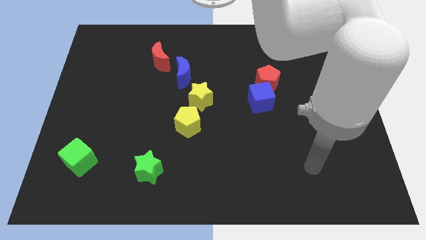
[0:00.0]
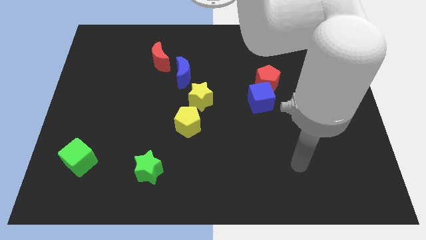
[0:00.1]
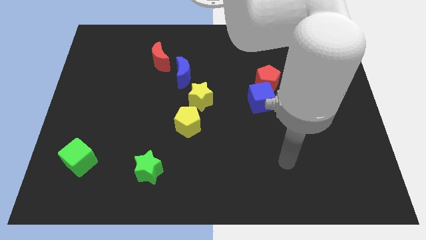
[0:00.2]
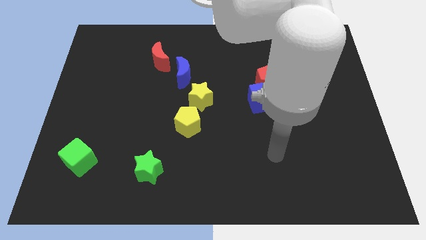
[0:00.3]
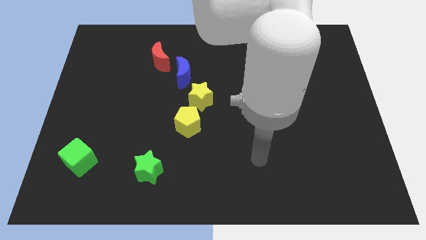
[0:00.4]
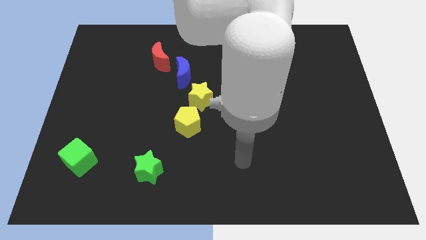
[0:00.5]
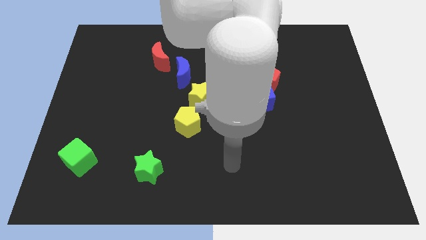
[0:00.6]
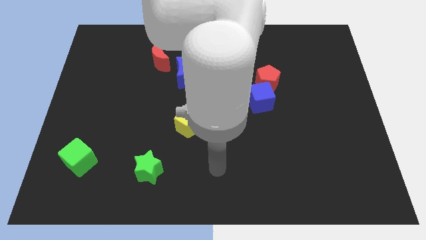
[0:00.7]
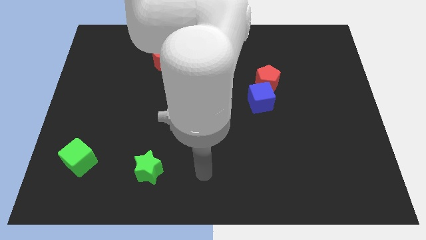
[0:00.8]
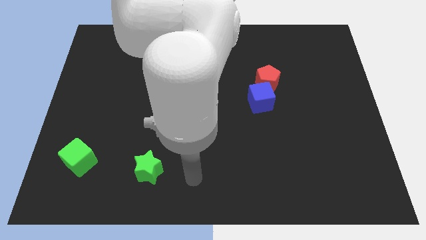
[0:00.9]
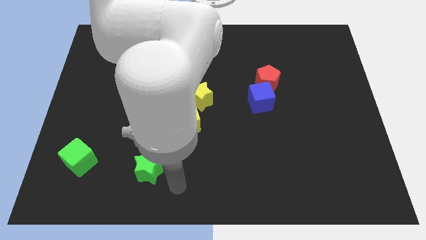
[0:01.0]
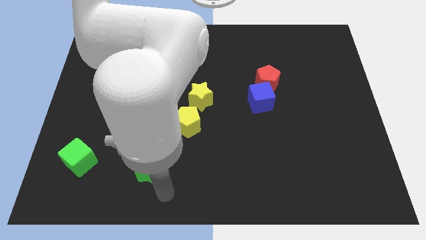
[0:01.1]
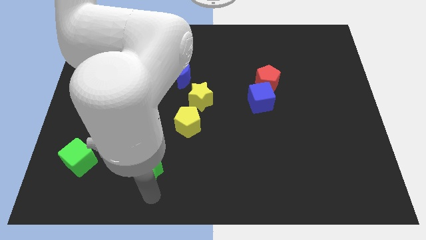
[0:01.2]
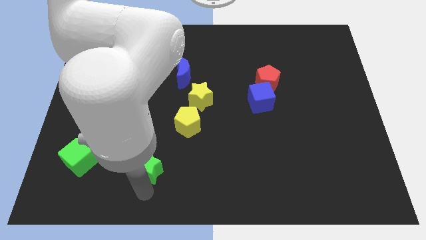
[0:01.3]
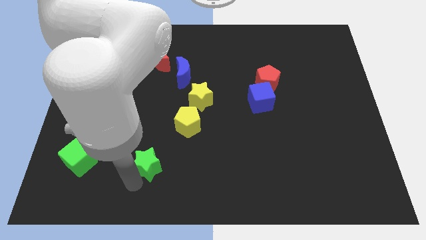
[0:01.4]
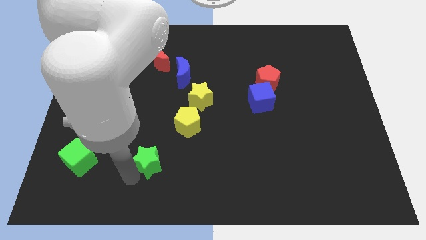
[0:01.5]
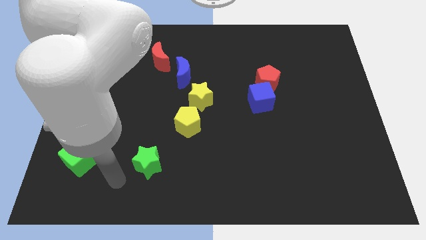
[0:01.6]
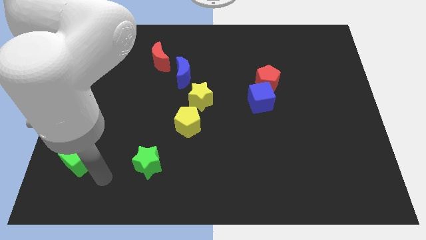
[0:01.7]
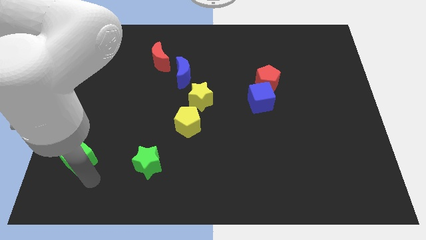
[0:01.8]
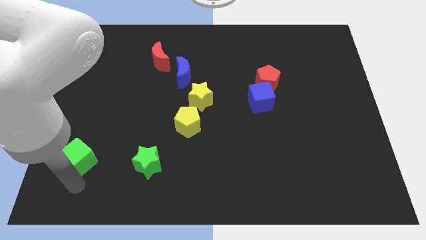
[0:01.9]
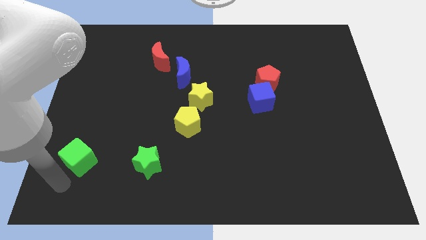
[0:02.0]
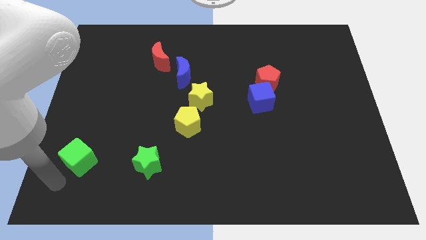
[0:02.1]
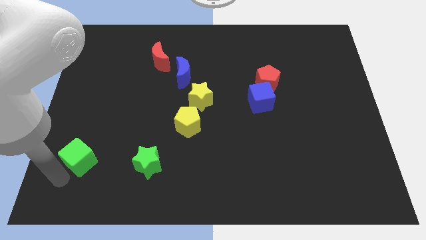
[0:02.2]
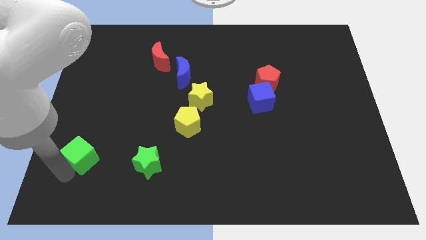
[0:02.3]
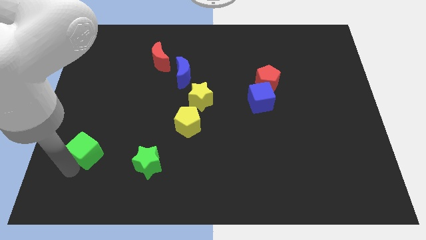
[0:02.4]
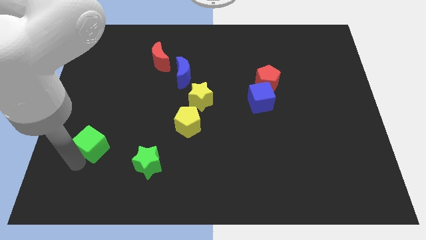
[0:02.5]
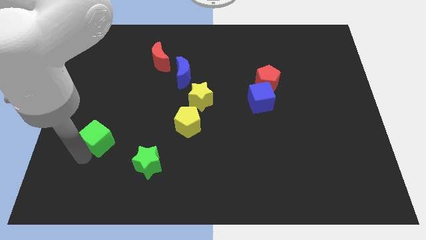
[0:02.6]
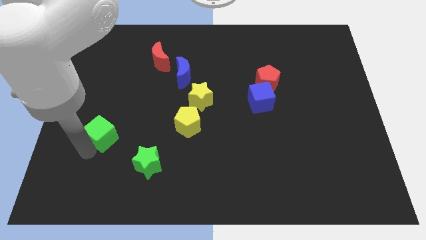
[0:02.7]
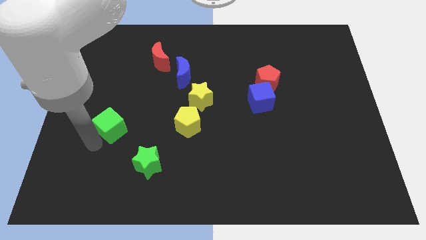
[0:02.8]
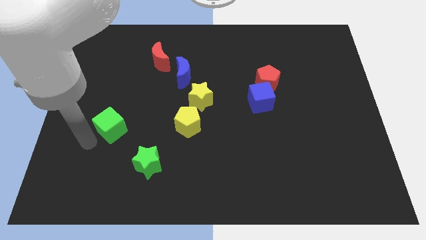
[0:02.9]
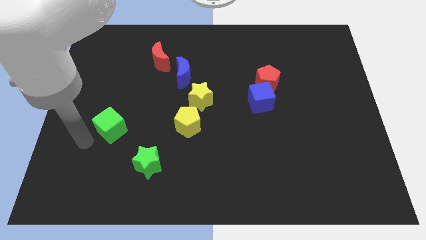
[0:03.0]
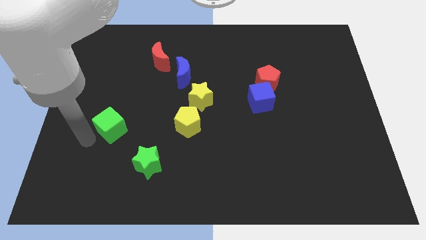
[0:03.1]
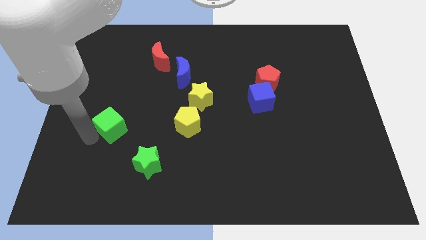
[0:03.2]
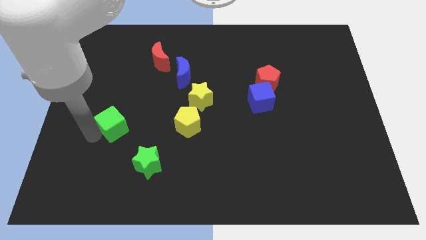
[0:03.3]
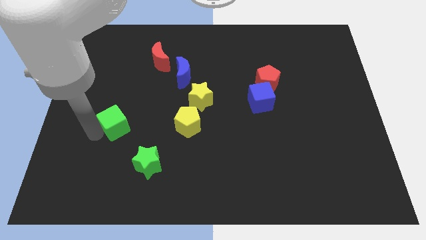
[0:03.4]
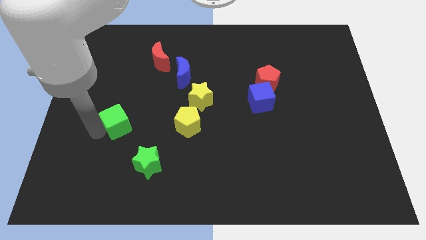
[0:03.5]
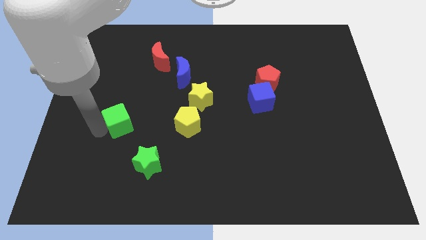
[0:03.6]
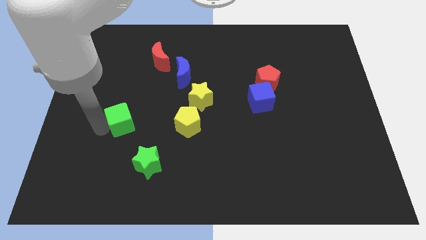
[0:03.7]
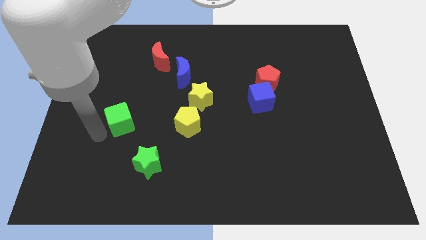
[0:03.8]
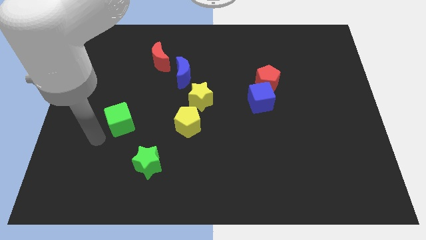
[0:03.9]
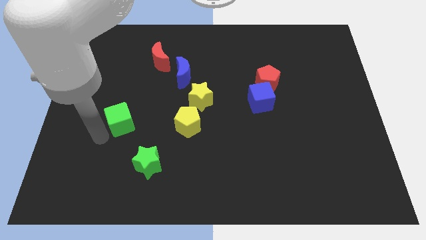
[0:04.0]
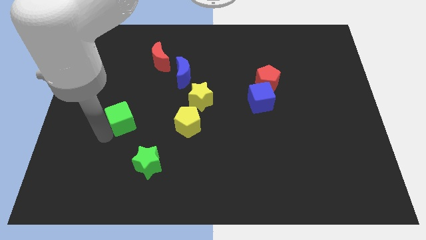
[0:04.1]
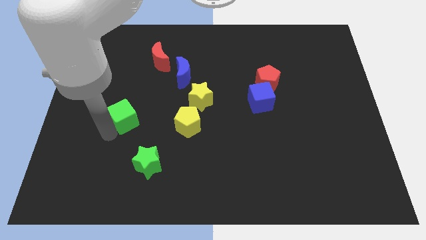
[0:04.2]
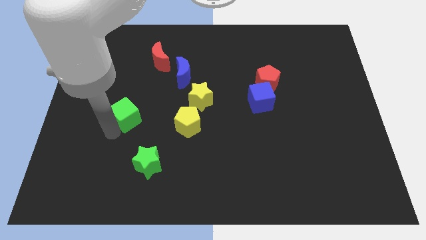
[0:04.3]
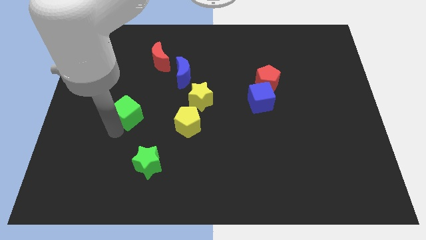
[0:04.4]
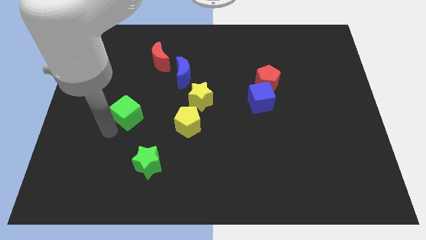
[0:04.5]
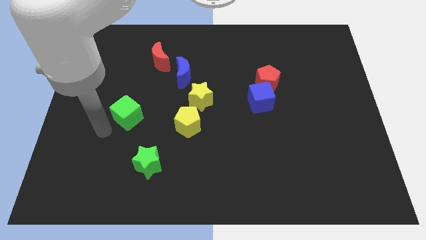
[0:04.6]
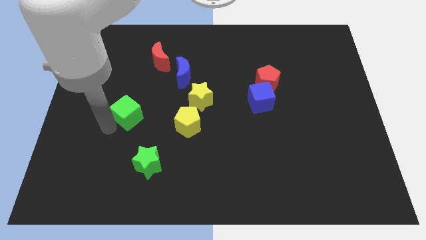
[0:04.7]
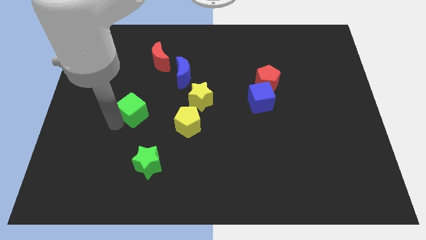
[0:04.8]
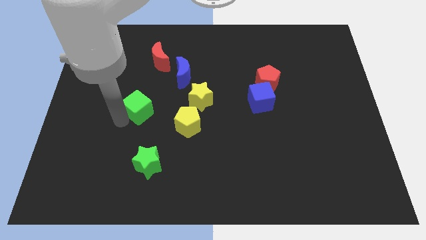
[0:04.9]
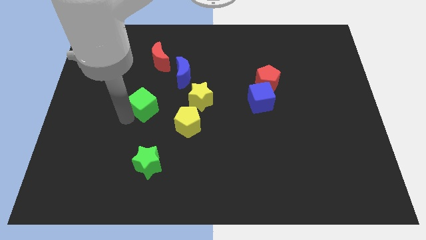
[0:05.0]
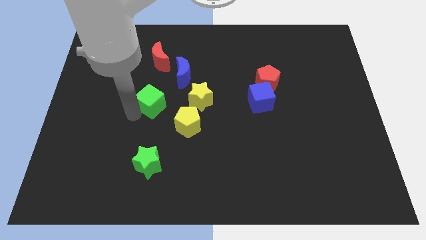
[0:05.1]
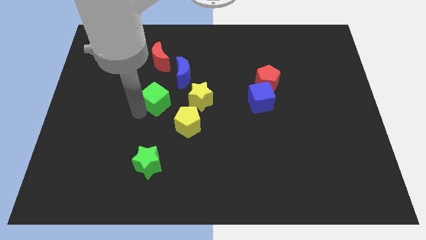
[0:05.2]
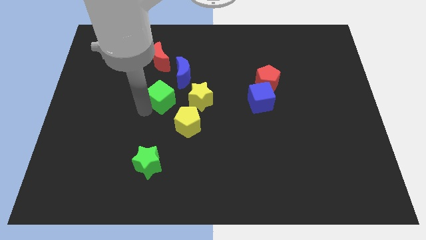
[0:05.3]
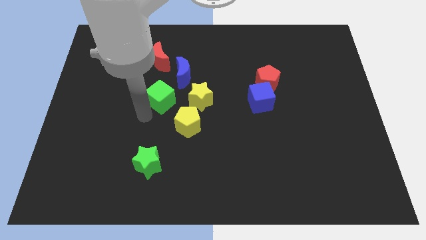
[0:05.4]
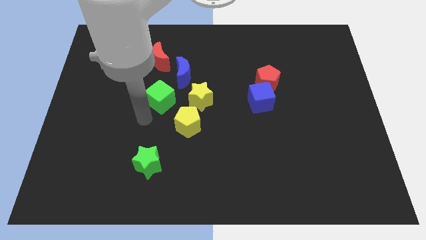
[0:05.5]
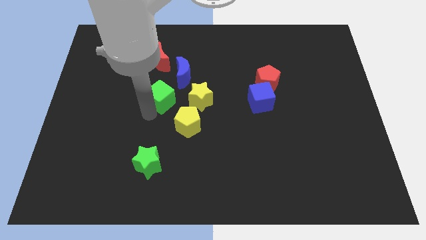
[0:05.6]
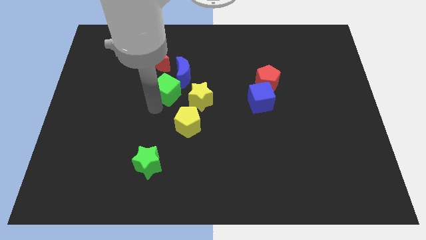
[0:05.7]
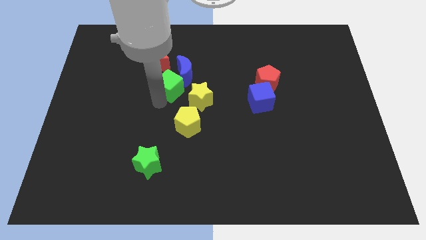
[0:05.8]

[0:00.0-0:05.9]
push the green cube close to the blue moon

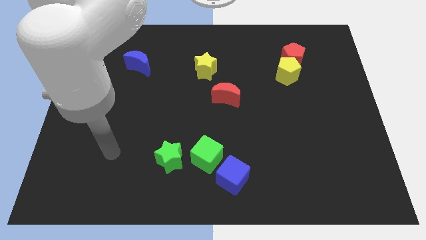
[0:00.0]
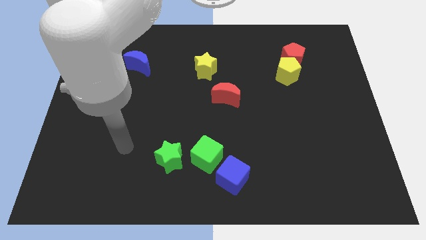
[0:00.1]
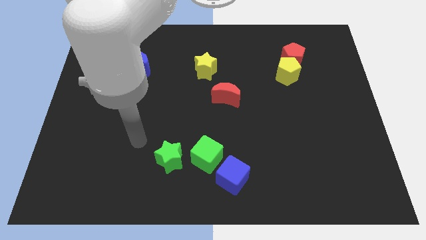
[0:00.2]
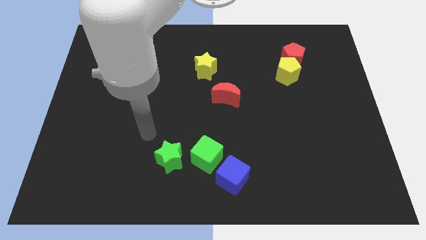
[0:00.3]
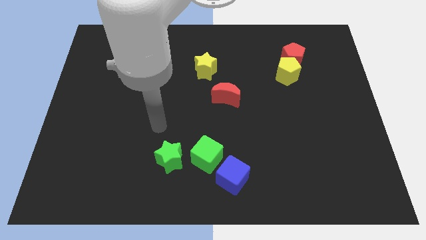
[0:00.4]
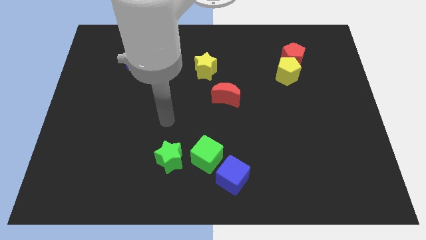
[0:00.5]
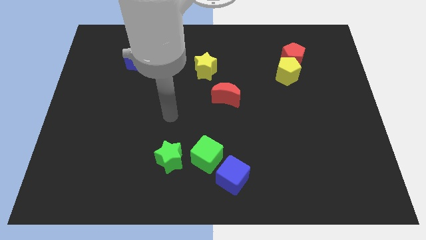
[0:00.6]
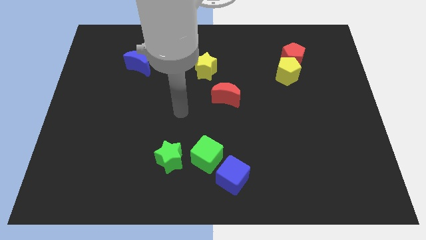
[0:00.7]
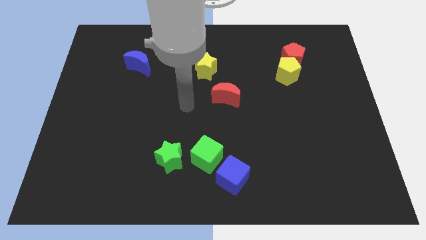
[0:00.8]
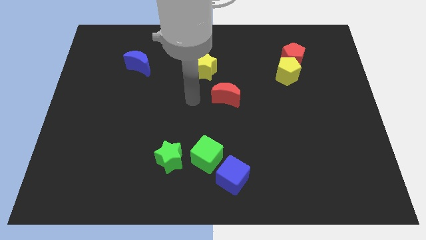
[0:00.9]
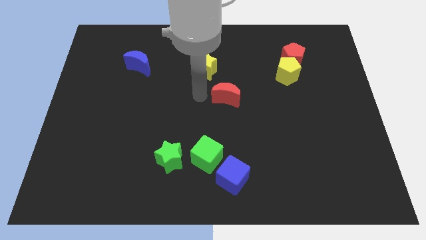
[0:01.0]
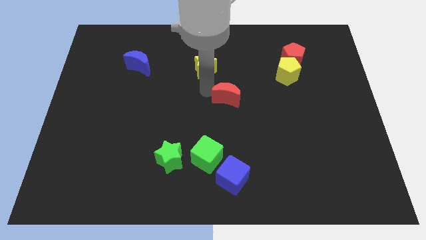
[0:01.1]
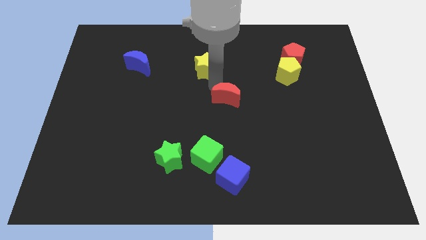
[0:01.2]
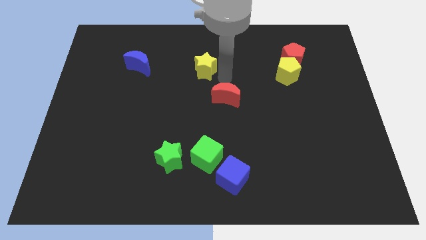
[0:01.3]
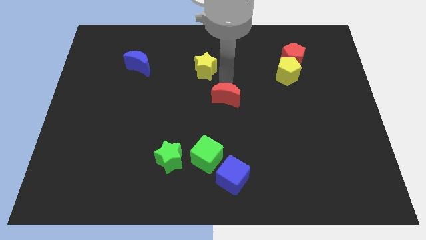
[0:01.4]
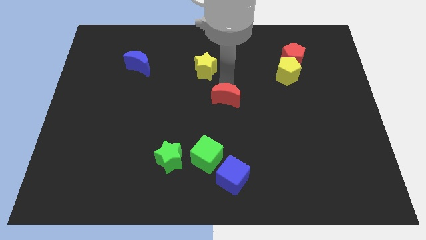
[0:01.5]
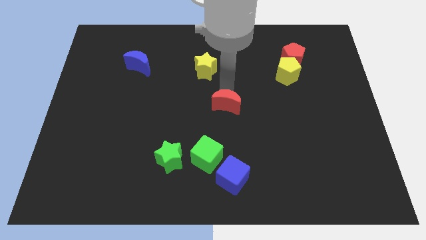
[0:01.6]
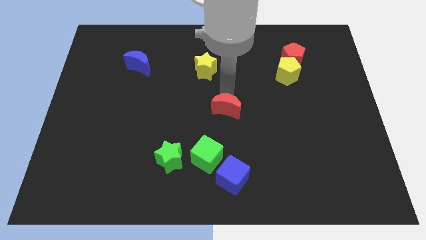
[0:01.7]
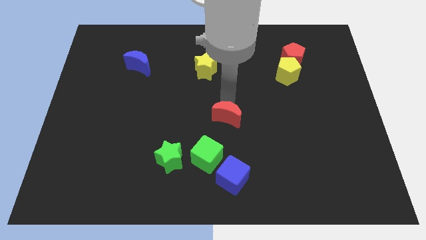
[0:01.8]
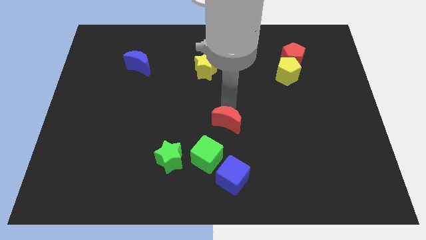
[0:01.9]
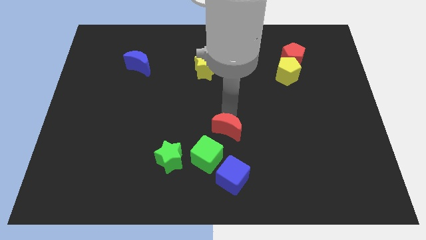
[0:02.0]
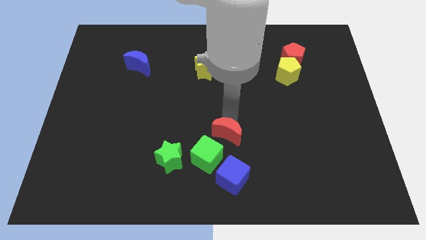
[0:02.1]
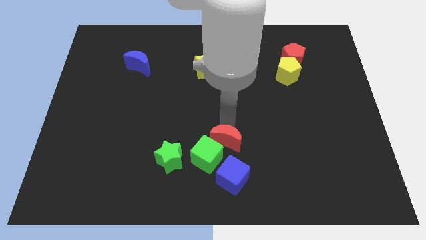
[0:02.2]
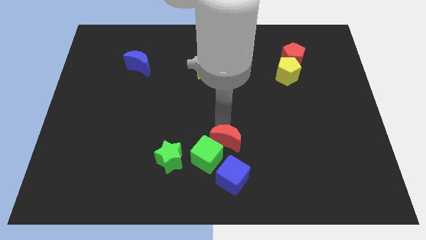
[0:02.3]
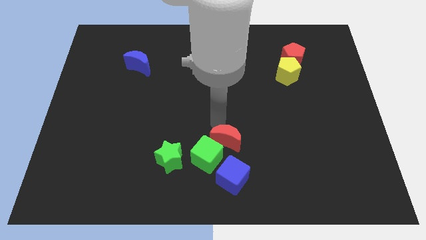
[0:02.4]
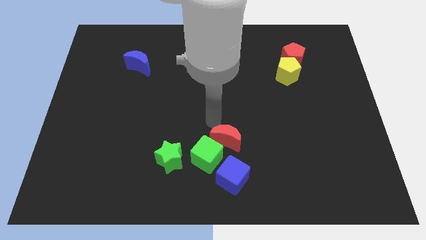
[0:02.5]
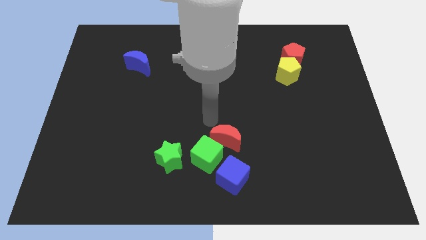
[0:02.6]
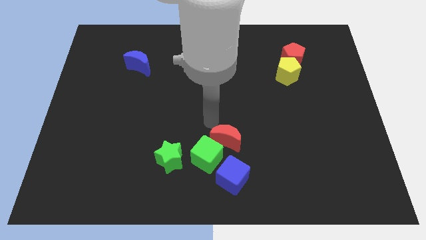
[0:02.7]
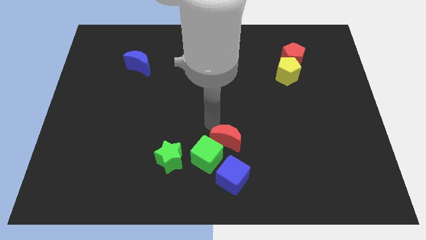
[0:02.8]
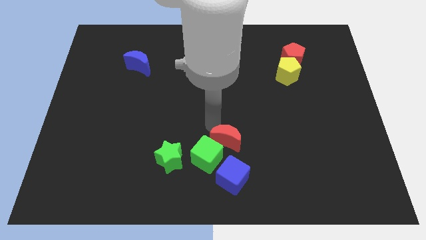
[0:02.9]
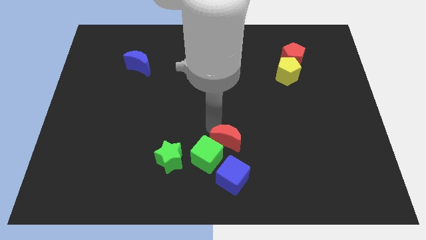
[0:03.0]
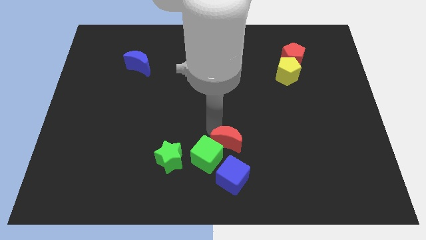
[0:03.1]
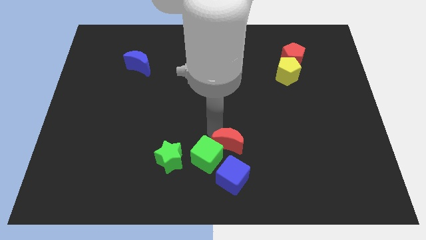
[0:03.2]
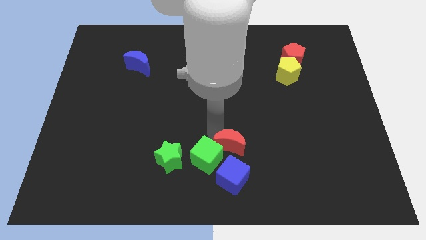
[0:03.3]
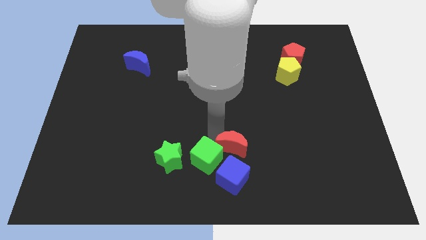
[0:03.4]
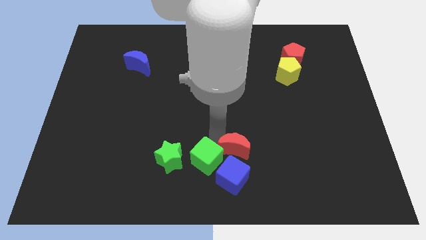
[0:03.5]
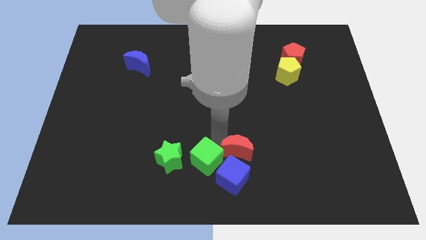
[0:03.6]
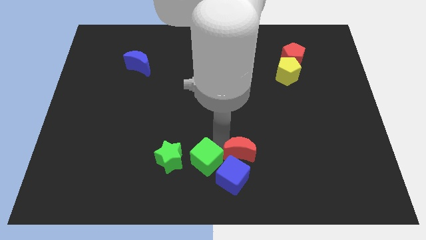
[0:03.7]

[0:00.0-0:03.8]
put the red moon next to the blue cube
